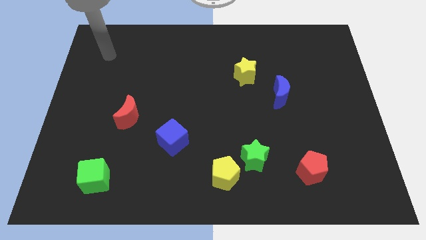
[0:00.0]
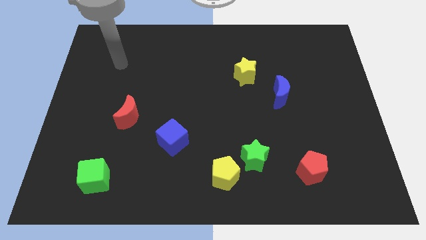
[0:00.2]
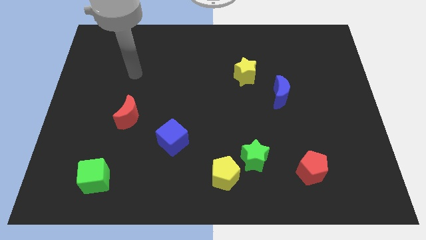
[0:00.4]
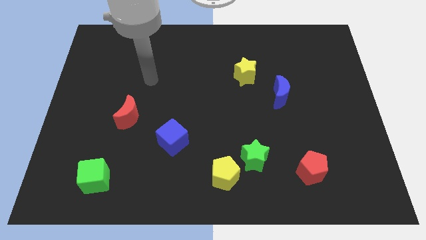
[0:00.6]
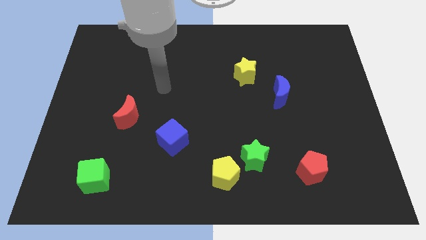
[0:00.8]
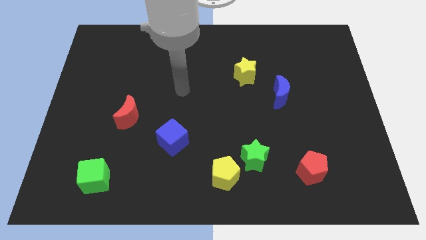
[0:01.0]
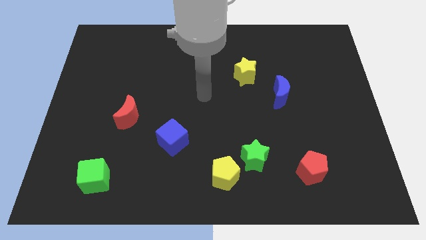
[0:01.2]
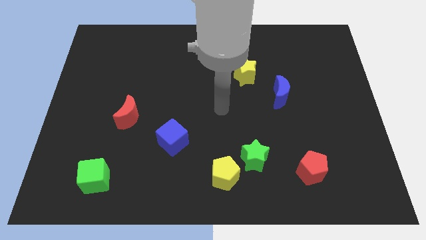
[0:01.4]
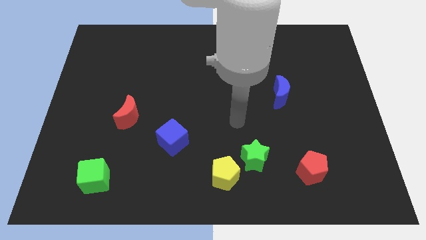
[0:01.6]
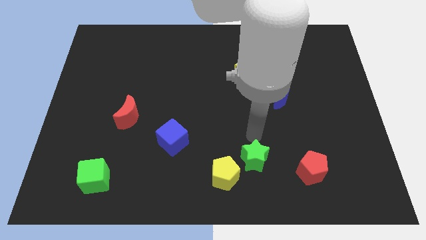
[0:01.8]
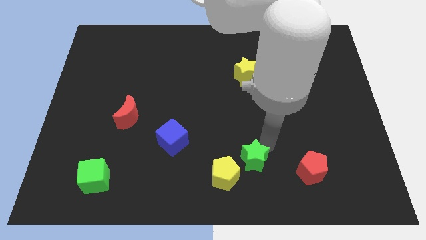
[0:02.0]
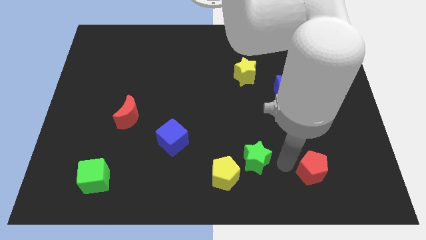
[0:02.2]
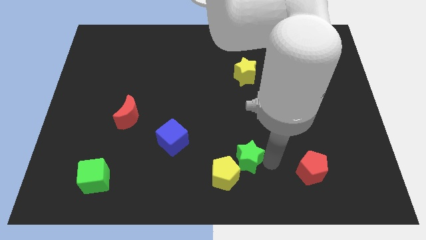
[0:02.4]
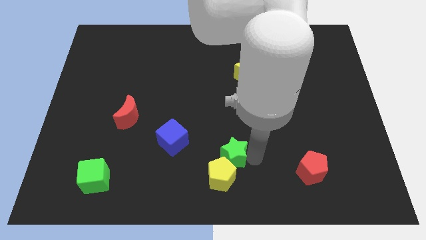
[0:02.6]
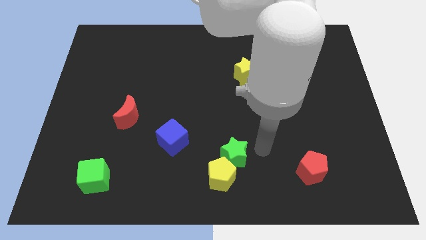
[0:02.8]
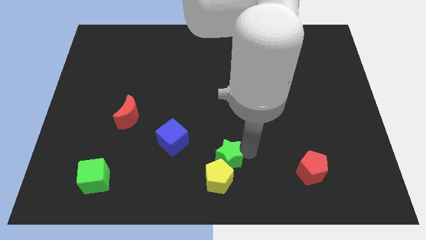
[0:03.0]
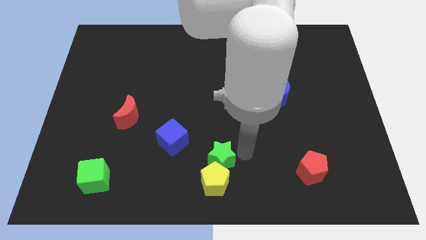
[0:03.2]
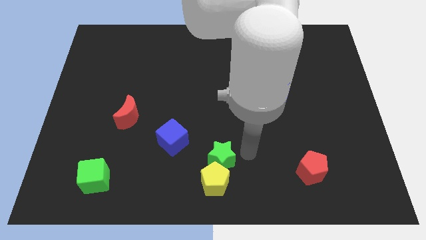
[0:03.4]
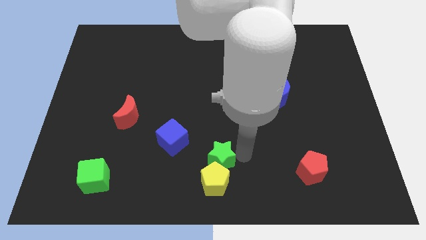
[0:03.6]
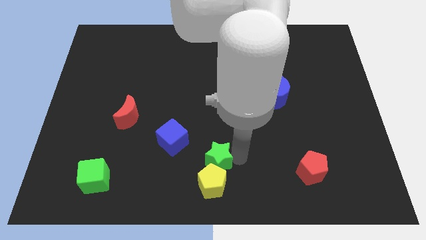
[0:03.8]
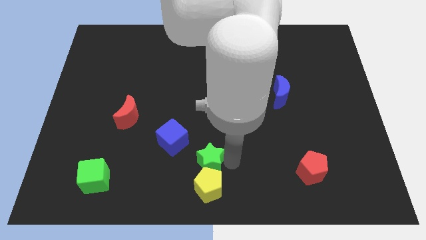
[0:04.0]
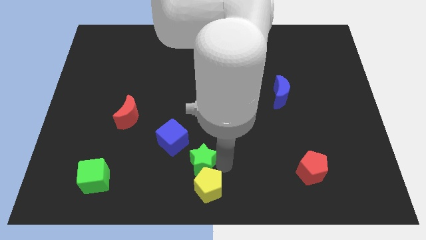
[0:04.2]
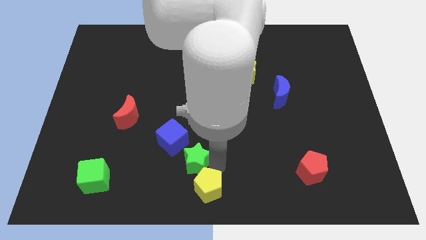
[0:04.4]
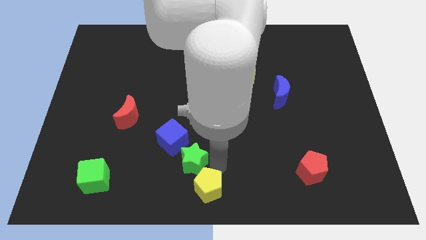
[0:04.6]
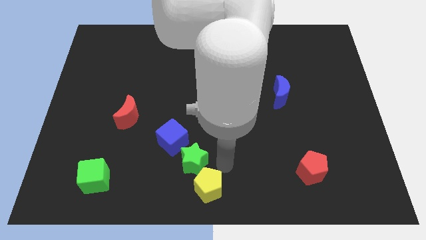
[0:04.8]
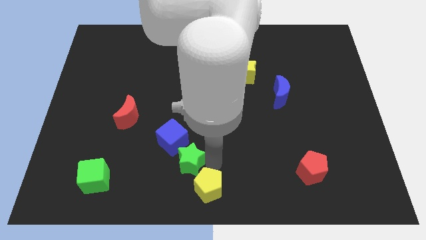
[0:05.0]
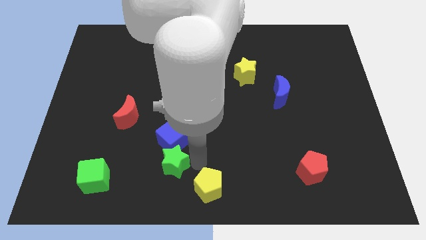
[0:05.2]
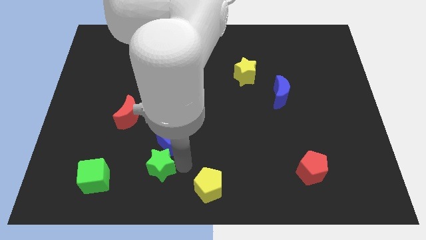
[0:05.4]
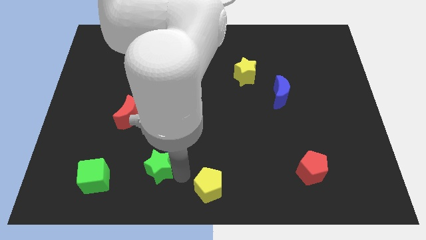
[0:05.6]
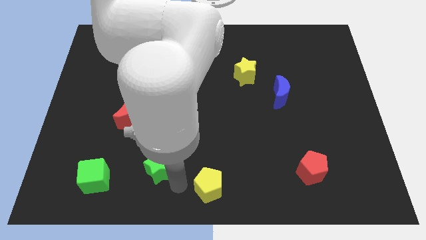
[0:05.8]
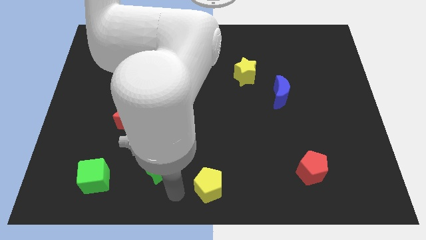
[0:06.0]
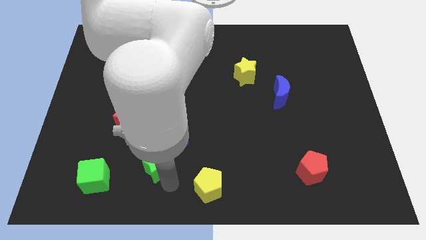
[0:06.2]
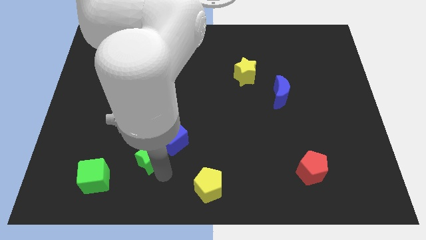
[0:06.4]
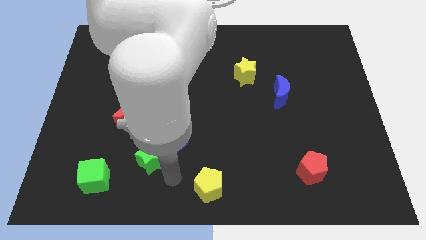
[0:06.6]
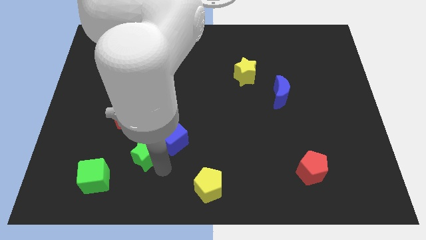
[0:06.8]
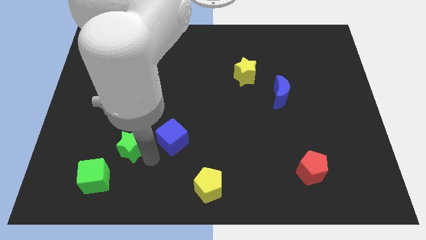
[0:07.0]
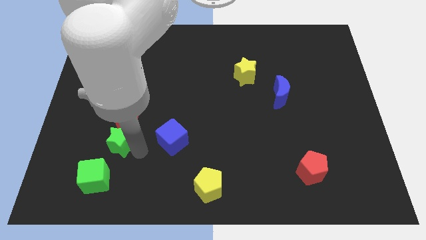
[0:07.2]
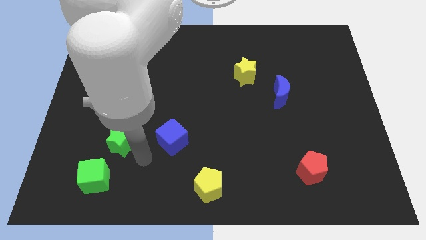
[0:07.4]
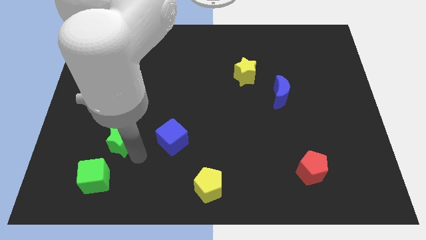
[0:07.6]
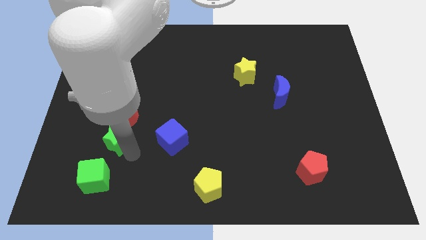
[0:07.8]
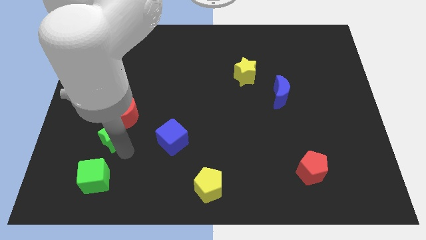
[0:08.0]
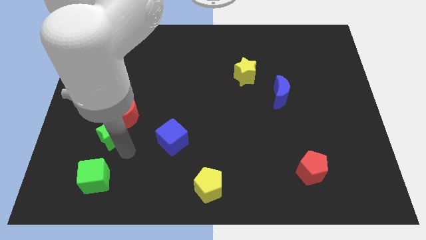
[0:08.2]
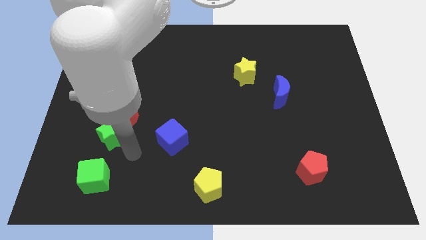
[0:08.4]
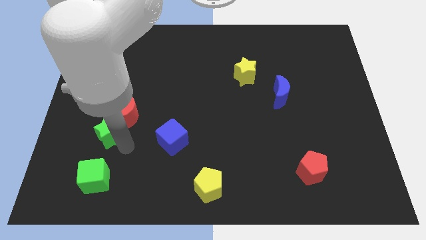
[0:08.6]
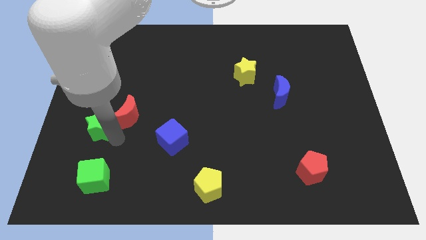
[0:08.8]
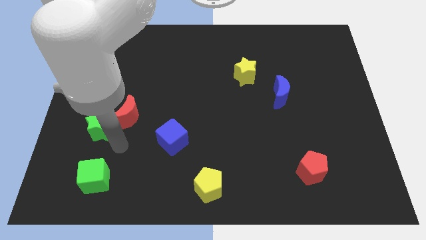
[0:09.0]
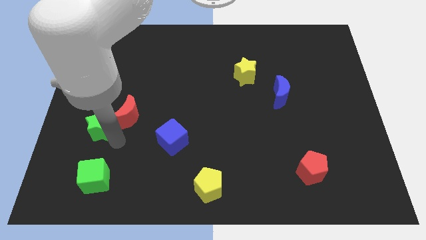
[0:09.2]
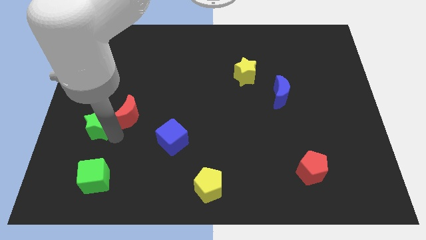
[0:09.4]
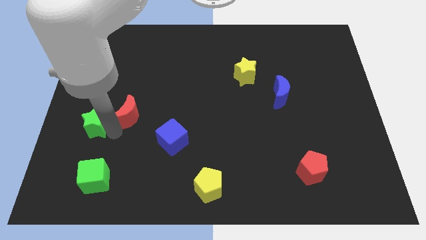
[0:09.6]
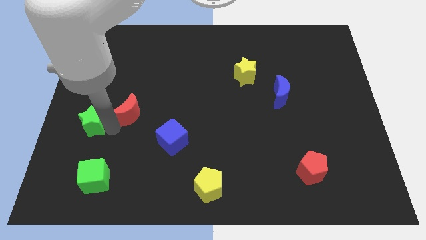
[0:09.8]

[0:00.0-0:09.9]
put the green star to the left side

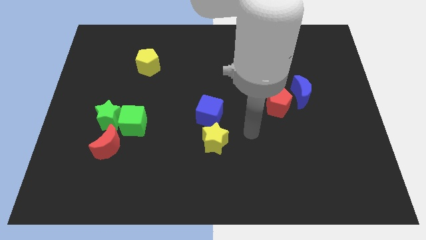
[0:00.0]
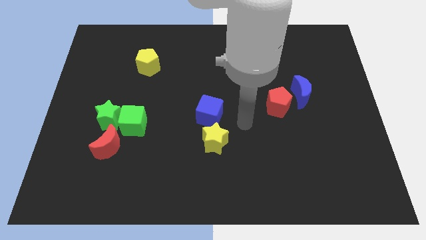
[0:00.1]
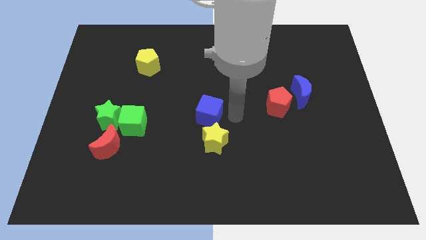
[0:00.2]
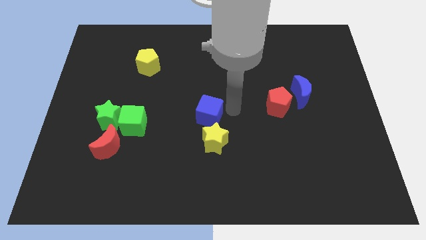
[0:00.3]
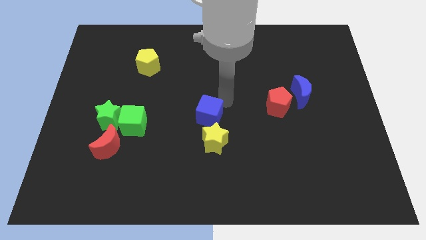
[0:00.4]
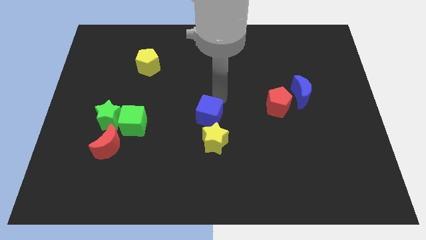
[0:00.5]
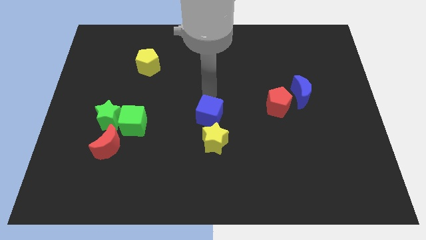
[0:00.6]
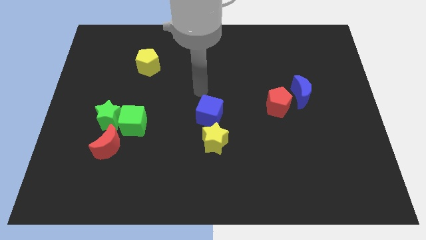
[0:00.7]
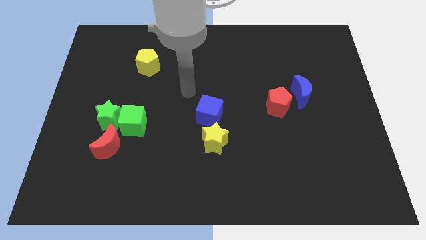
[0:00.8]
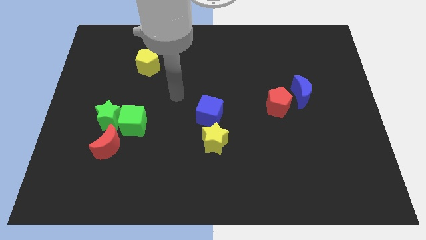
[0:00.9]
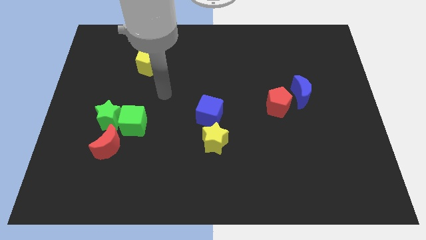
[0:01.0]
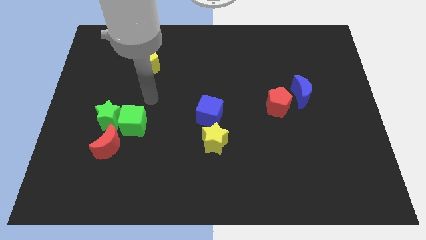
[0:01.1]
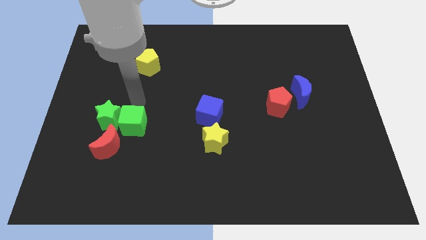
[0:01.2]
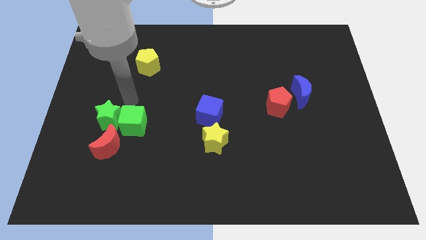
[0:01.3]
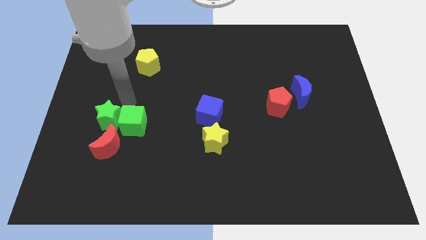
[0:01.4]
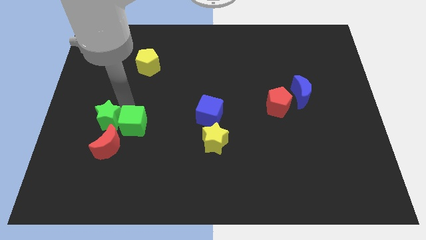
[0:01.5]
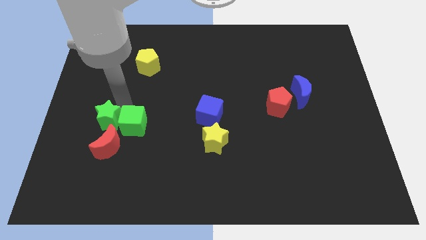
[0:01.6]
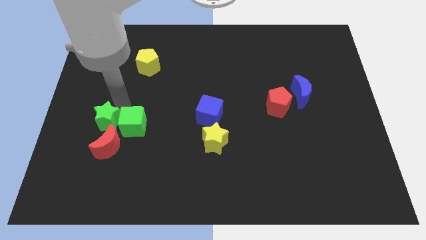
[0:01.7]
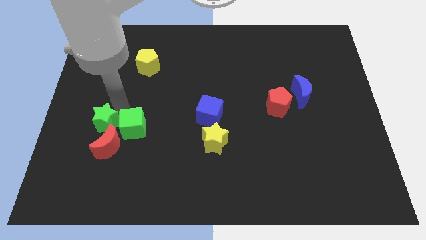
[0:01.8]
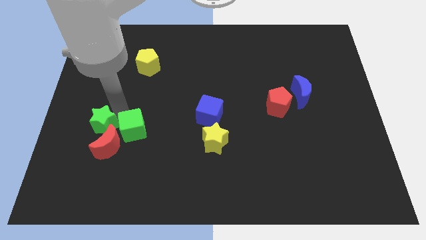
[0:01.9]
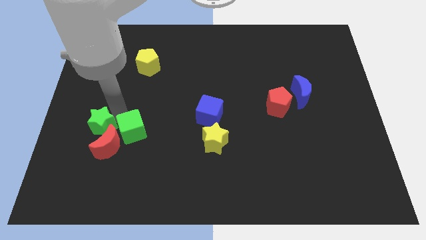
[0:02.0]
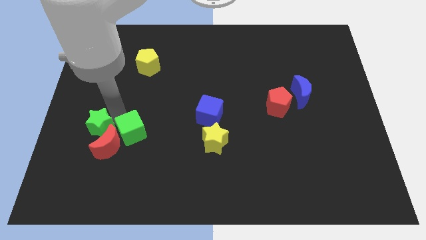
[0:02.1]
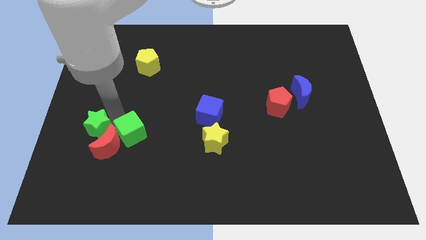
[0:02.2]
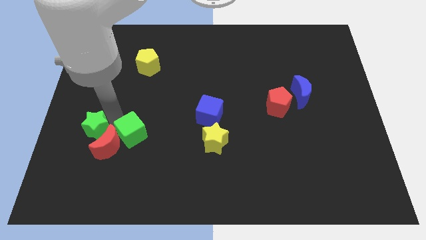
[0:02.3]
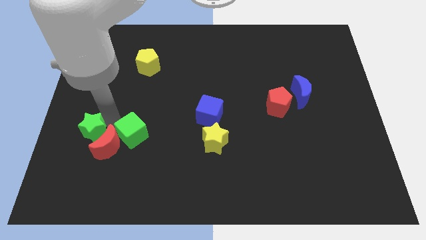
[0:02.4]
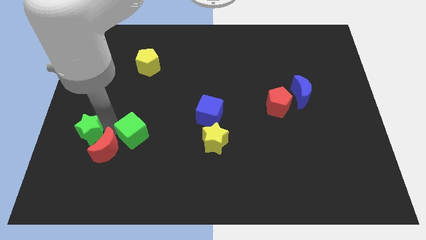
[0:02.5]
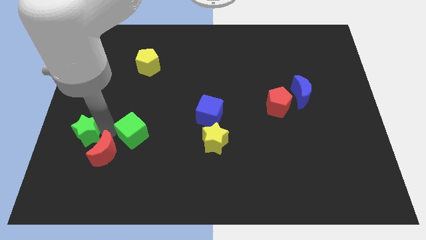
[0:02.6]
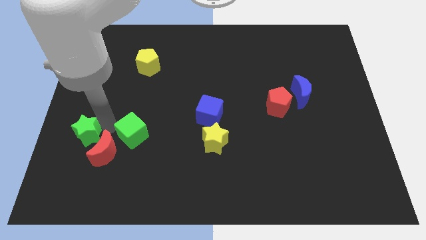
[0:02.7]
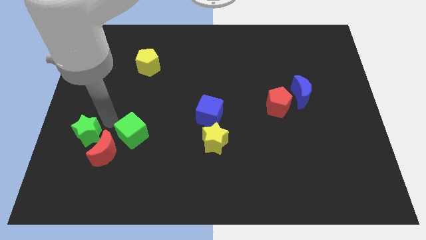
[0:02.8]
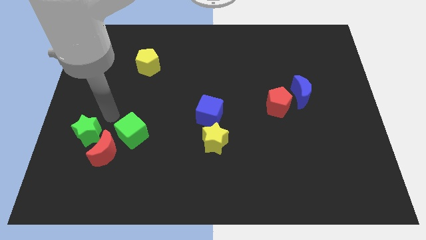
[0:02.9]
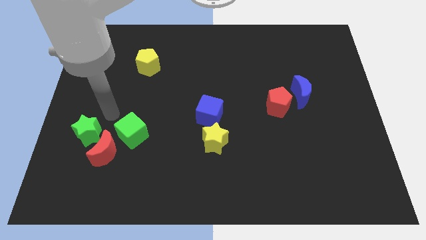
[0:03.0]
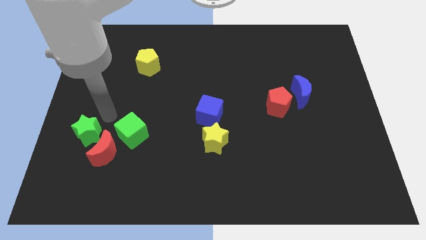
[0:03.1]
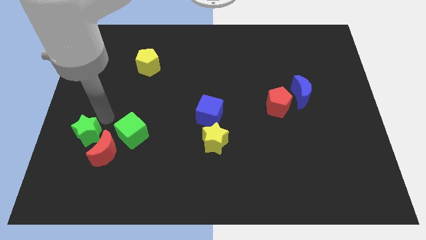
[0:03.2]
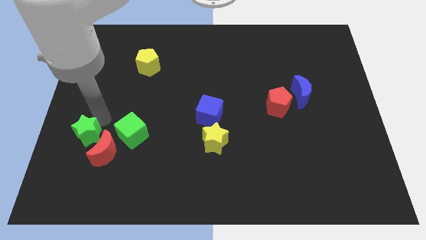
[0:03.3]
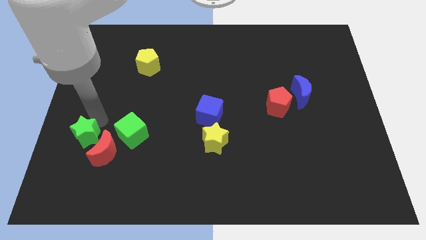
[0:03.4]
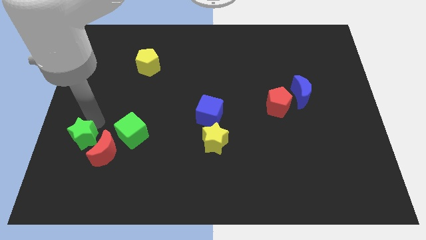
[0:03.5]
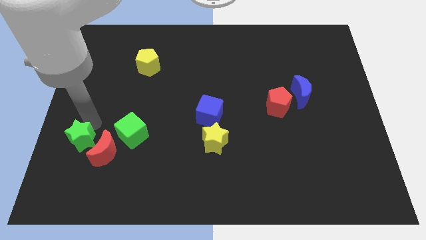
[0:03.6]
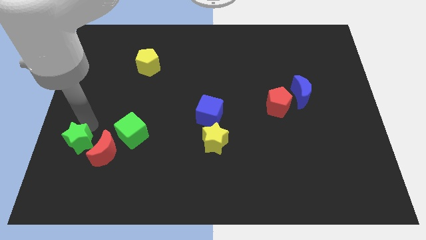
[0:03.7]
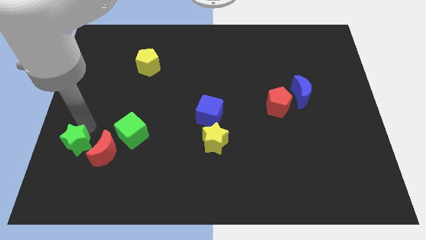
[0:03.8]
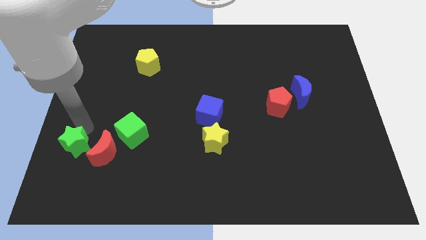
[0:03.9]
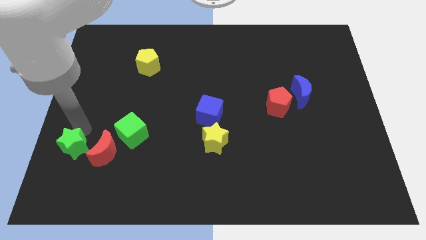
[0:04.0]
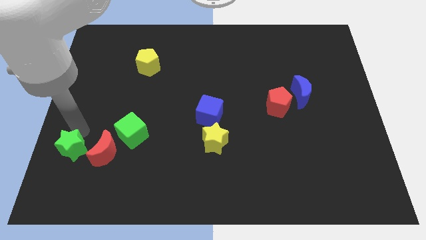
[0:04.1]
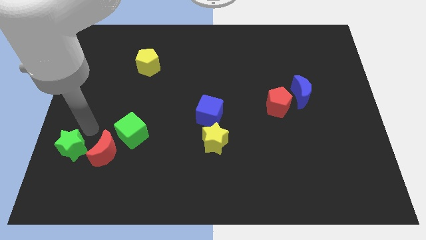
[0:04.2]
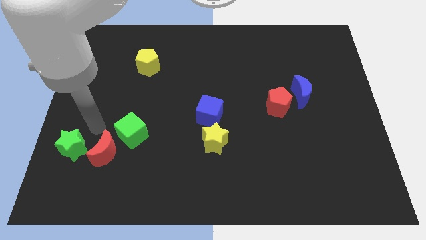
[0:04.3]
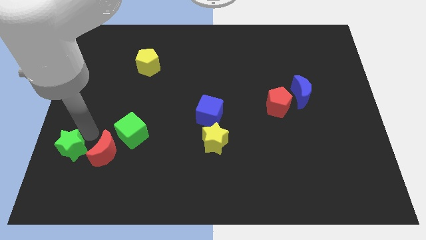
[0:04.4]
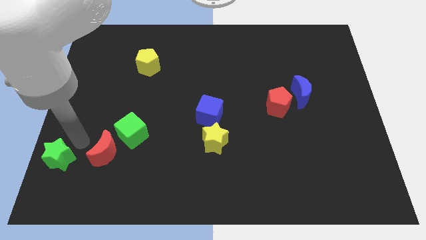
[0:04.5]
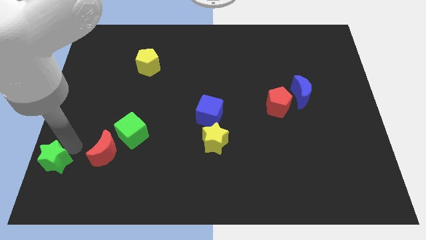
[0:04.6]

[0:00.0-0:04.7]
put the green star to the lower left corner
